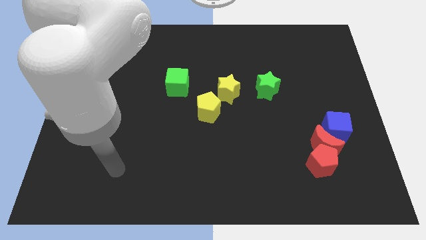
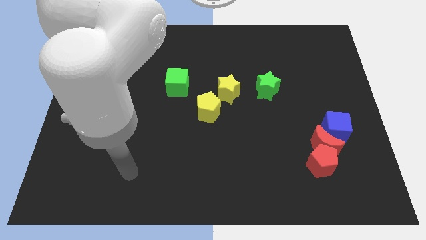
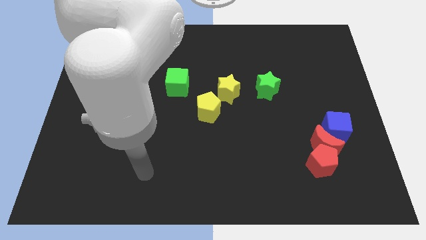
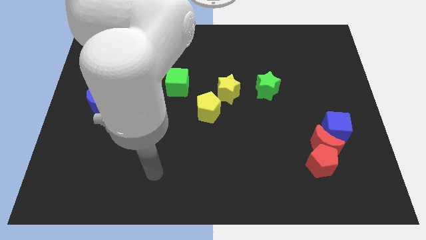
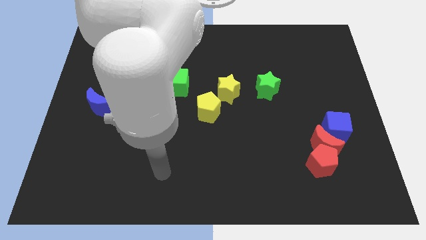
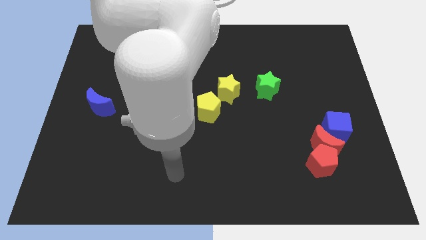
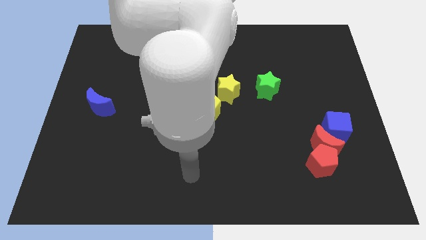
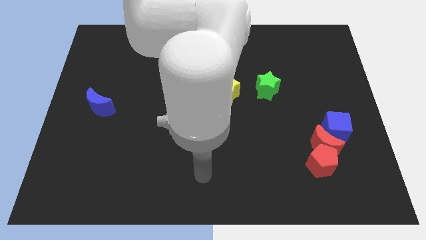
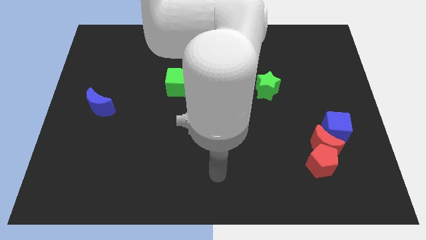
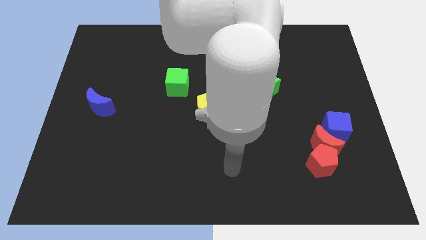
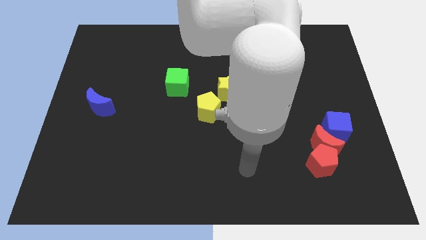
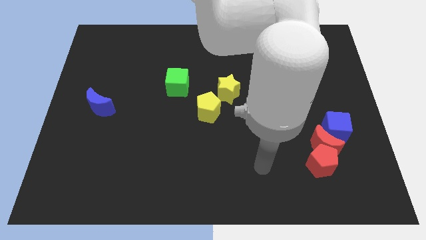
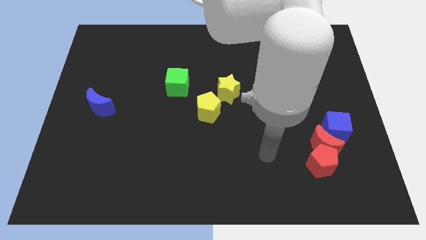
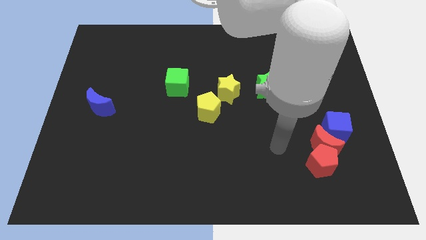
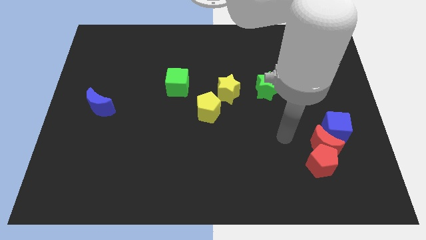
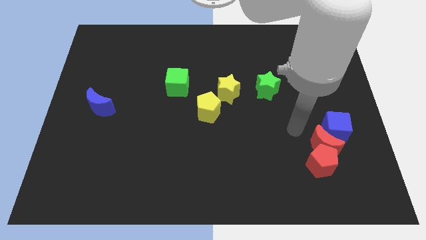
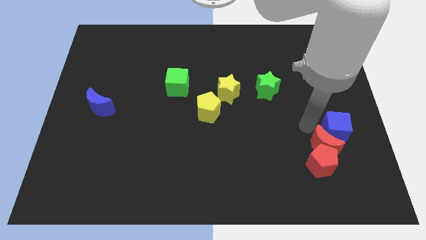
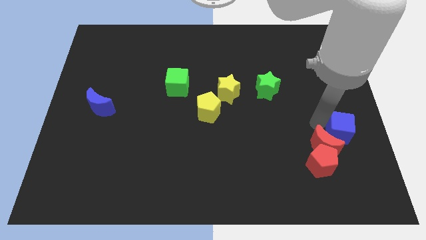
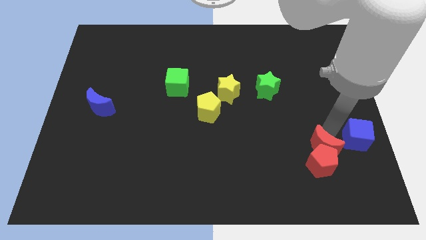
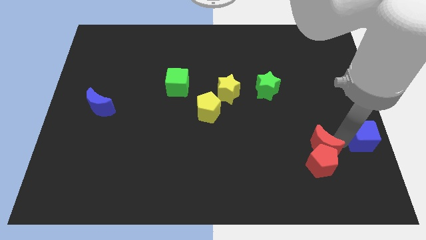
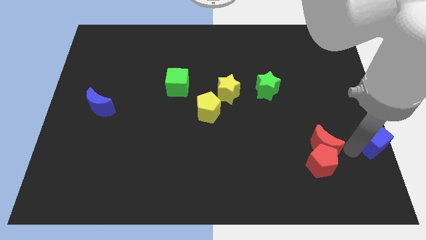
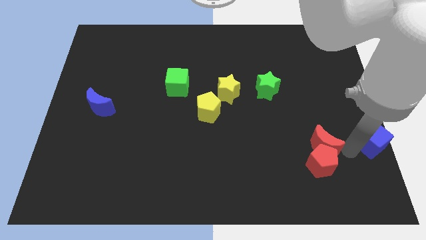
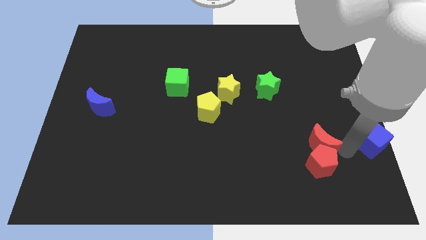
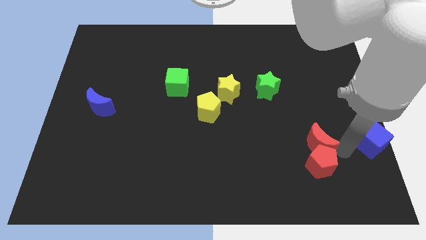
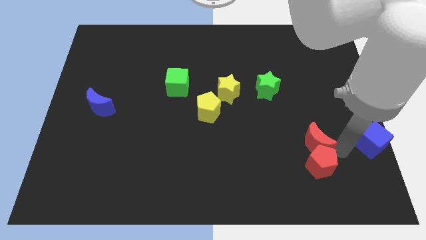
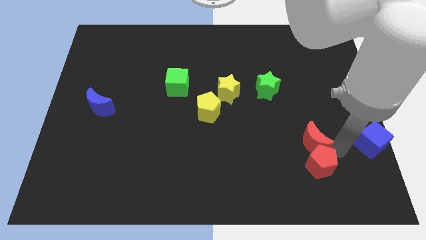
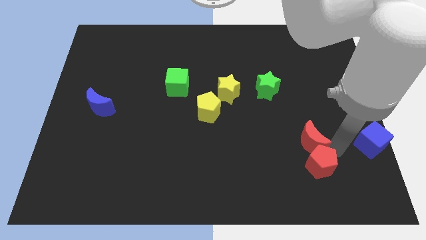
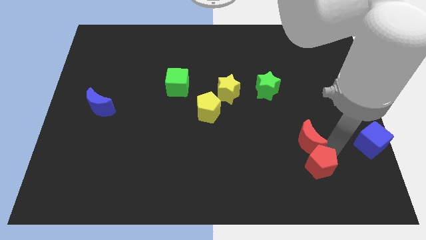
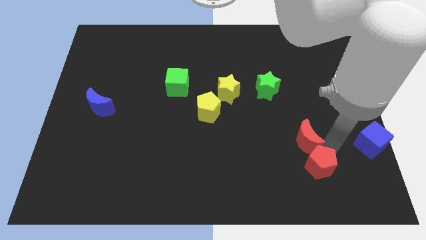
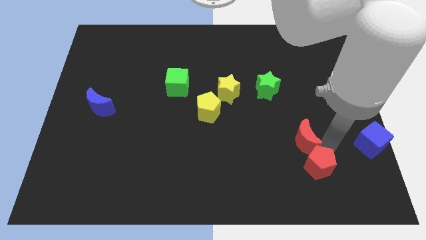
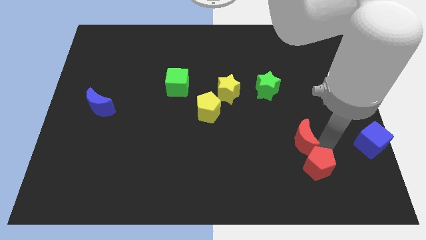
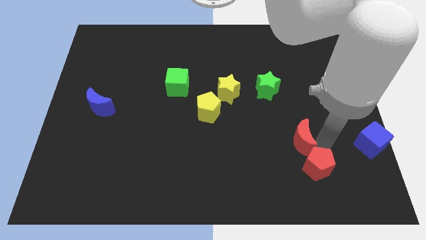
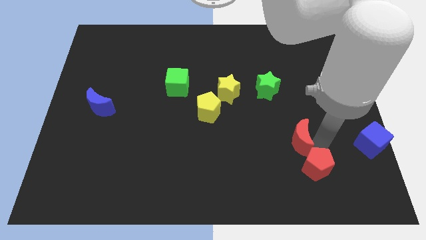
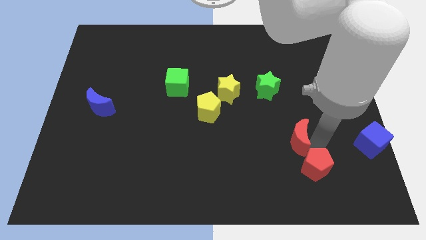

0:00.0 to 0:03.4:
separate the red moon from the red pentagon and blue cube

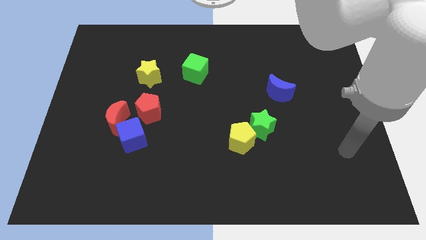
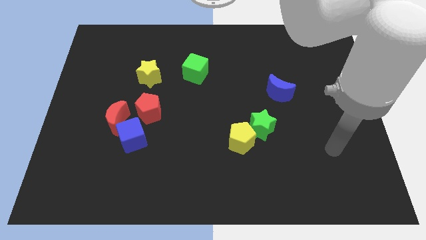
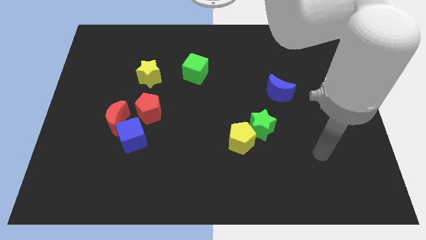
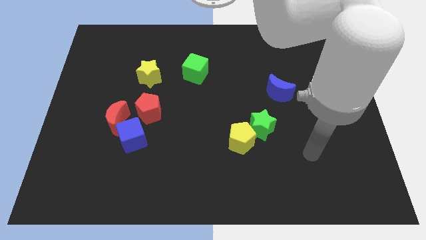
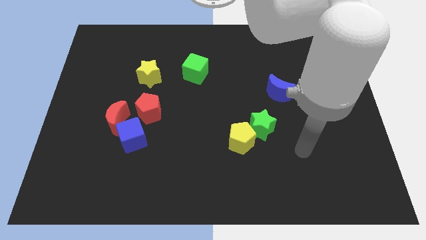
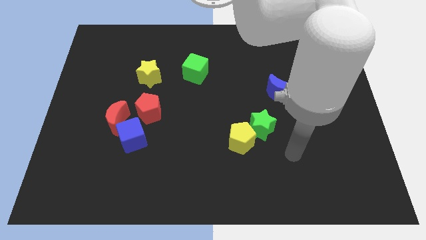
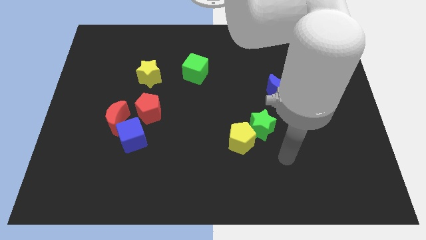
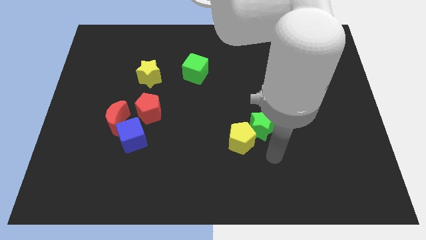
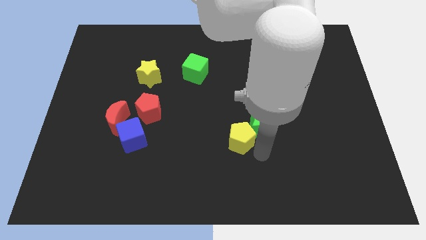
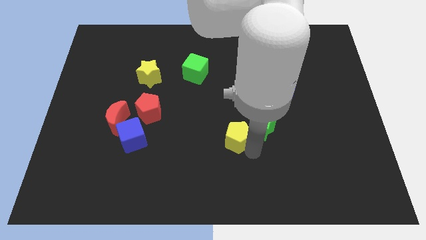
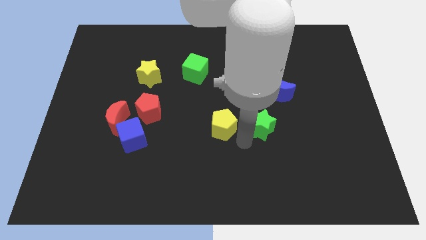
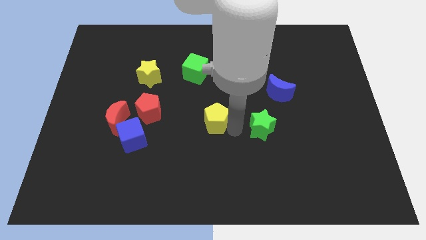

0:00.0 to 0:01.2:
pull the green star apart from the yellow pentagon

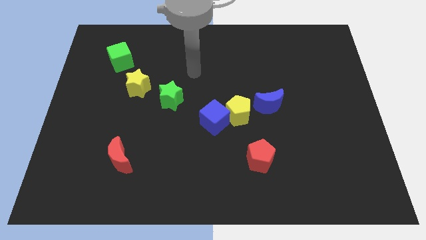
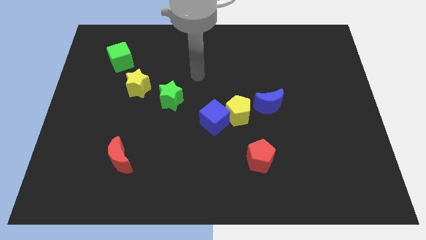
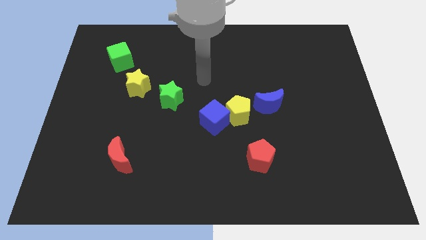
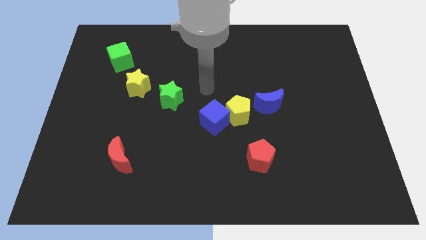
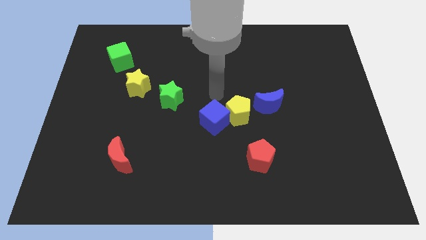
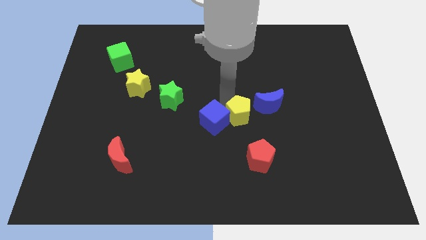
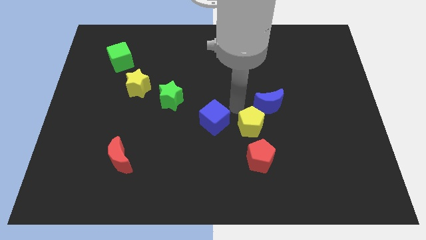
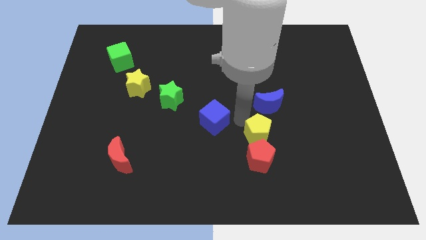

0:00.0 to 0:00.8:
separate the blue cube from the yellow pentagon

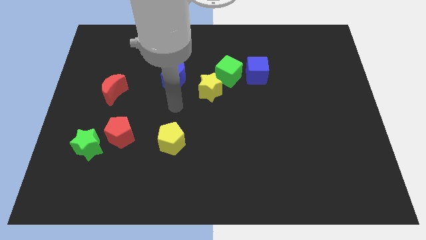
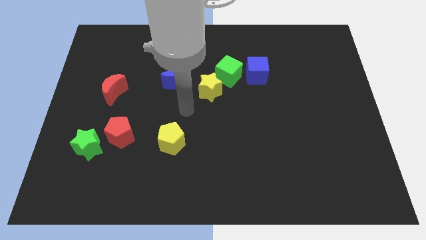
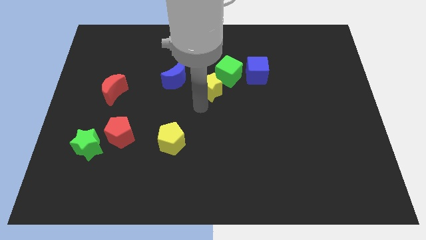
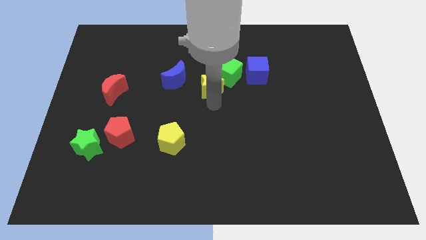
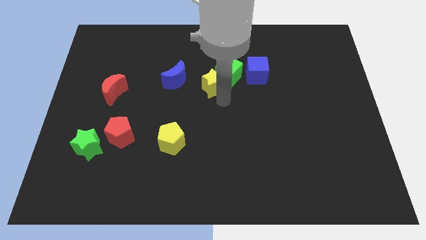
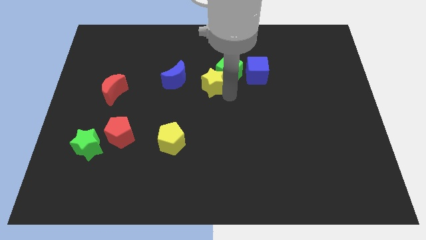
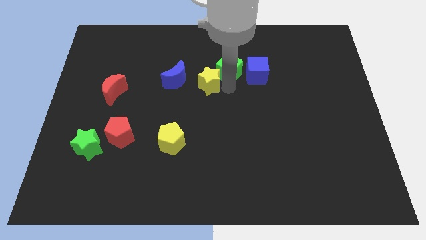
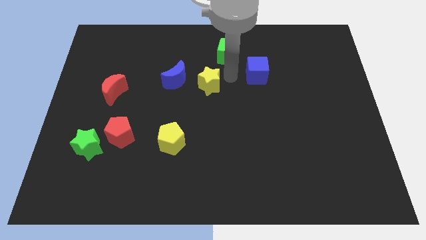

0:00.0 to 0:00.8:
separate the blue cube from the green cube

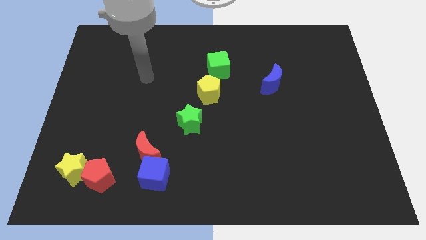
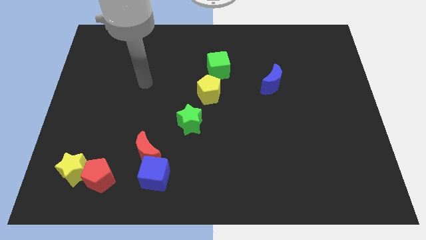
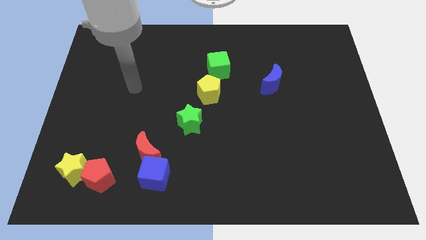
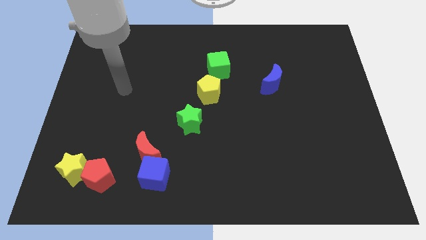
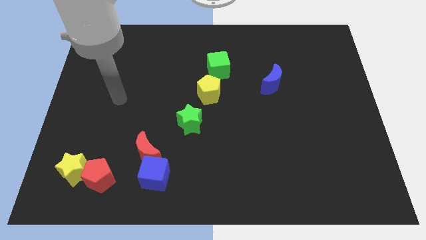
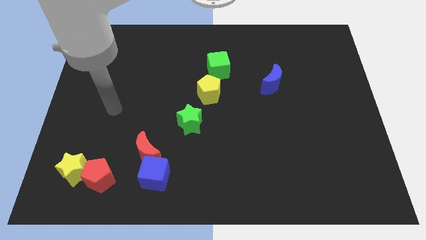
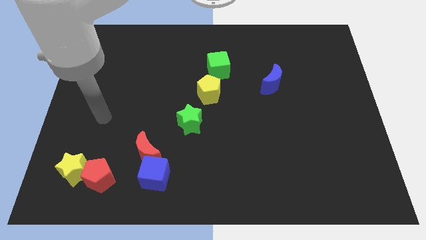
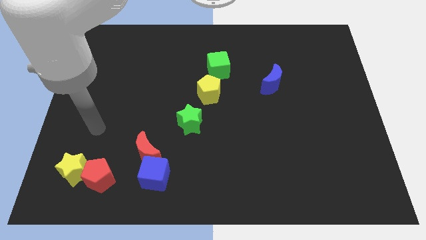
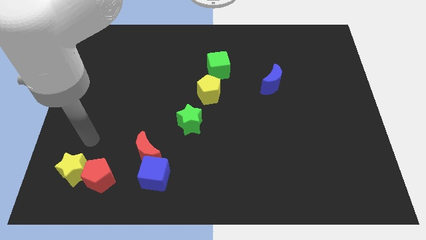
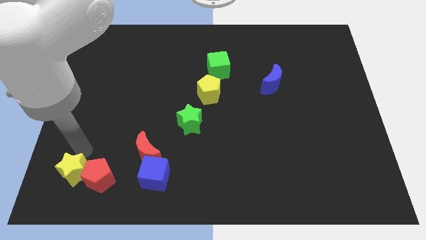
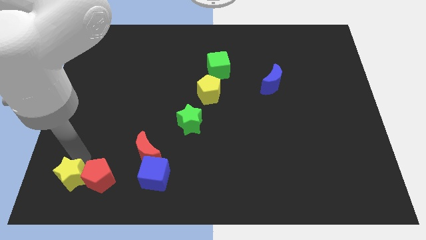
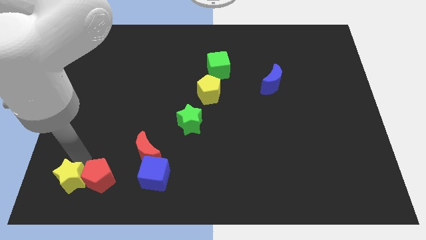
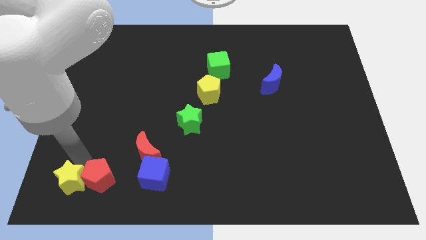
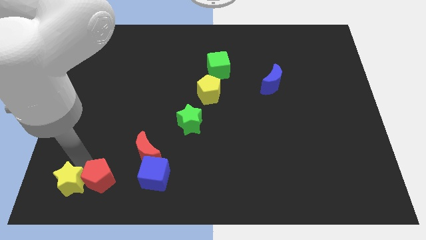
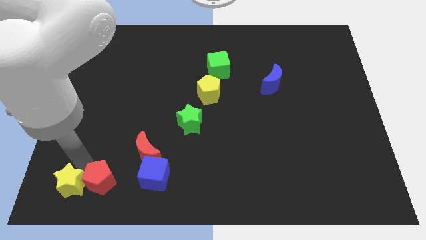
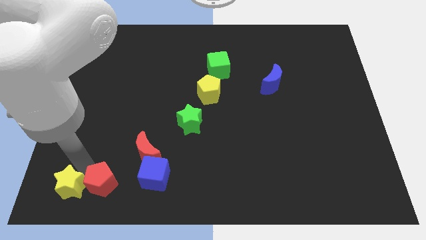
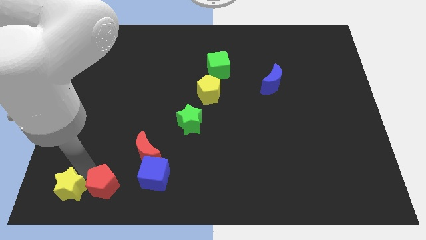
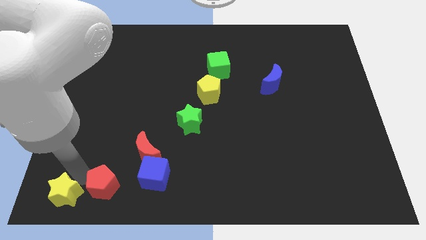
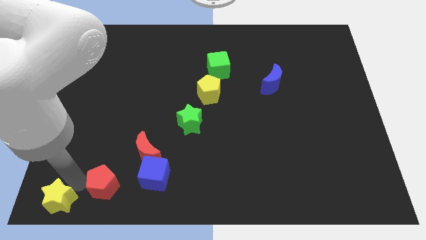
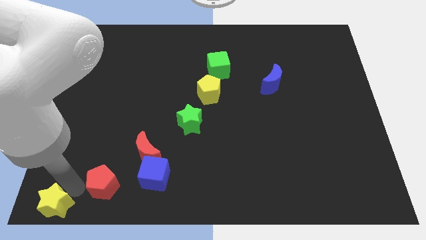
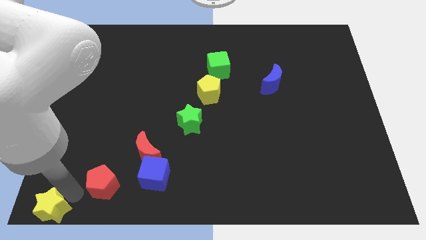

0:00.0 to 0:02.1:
separate the red pentagon from the yellow star

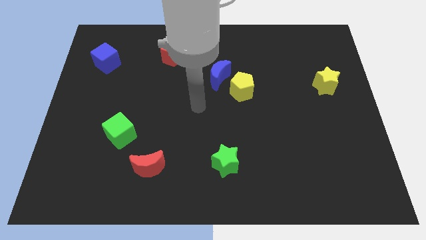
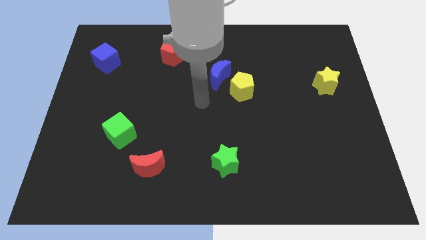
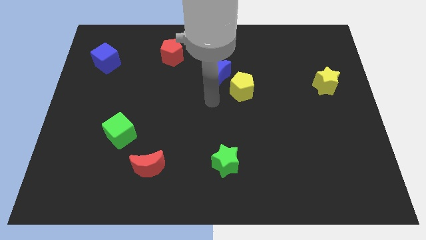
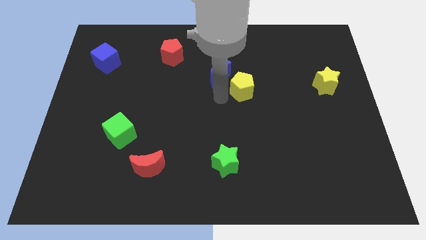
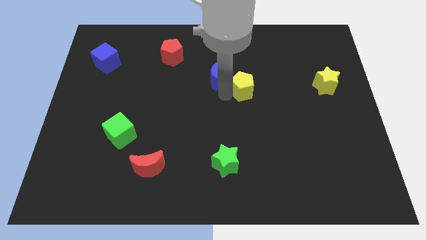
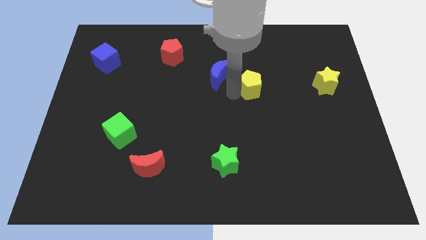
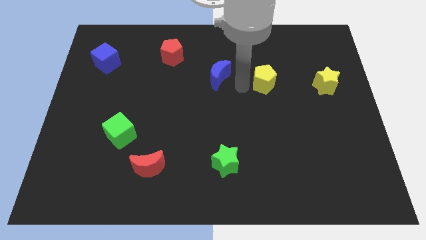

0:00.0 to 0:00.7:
separate the blue moon from the yellow pentagon

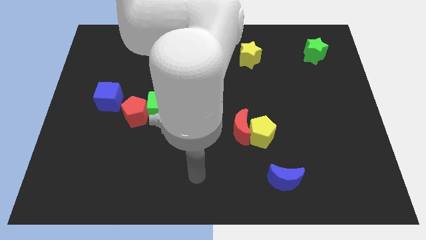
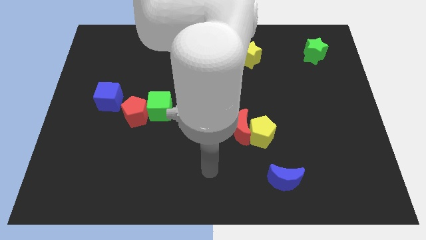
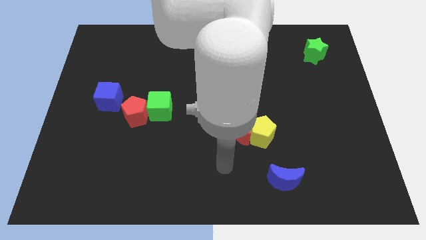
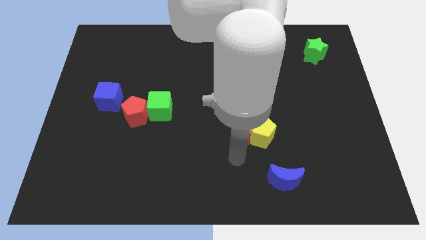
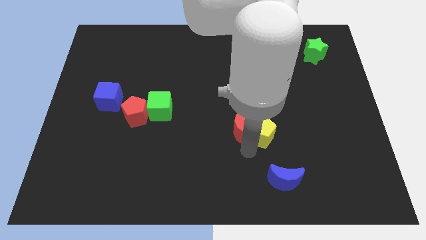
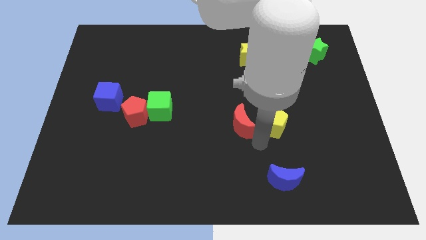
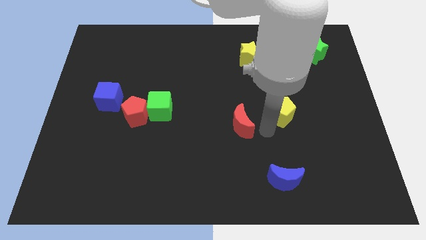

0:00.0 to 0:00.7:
pull the red moon apart from the yellow pentagon
